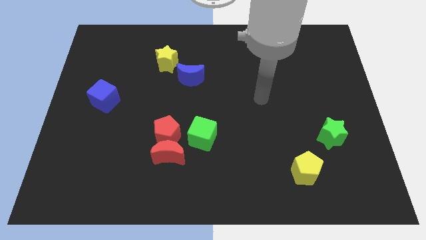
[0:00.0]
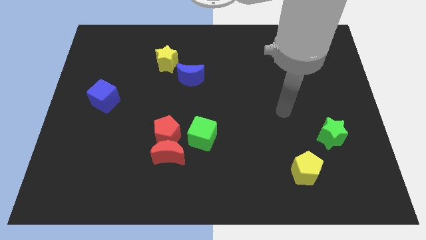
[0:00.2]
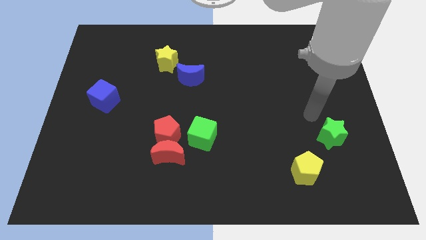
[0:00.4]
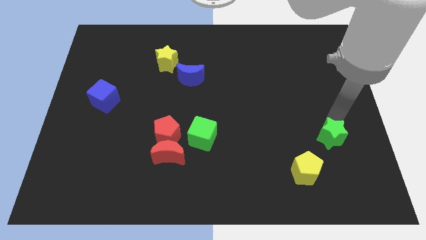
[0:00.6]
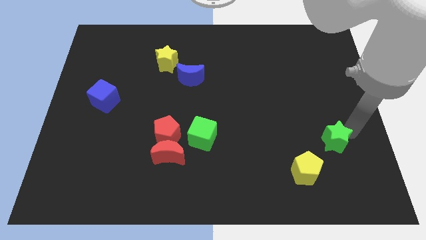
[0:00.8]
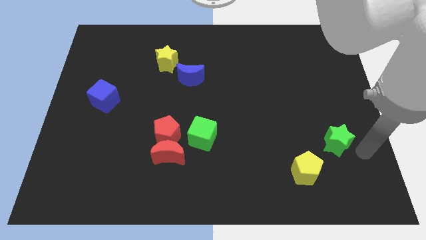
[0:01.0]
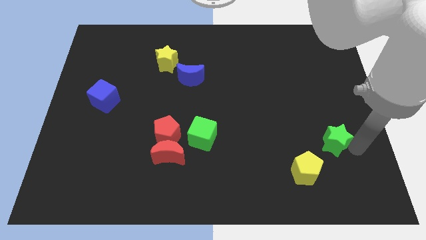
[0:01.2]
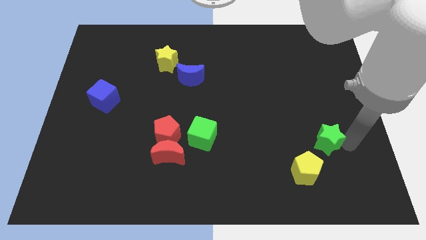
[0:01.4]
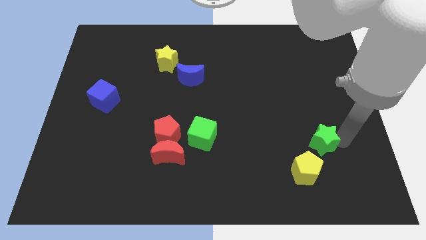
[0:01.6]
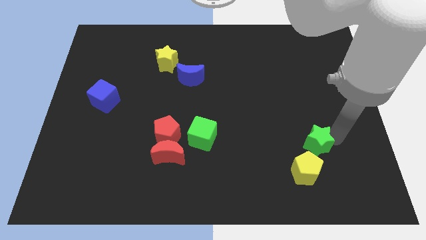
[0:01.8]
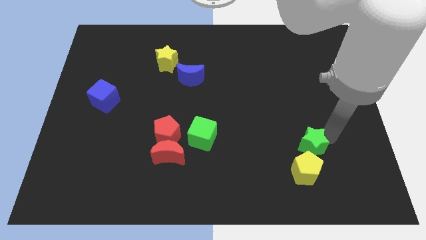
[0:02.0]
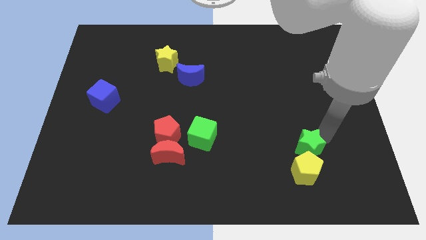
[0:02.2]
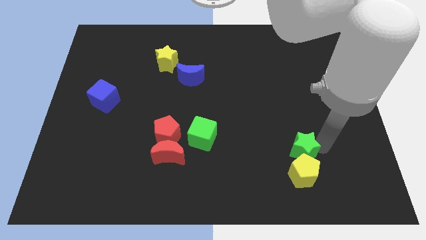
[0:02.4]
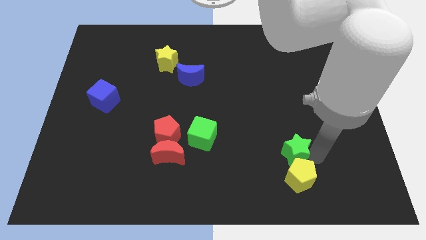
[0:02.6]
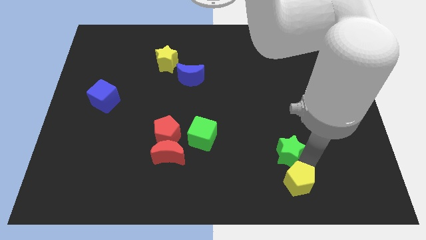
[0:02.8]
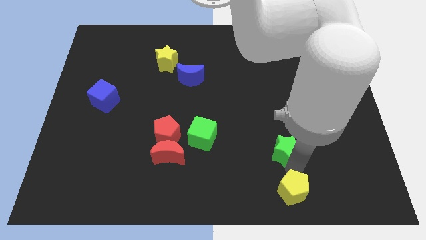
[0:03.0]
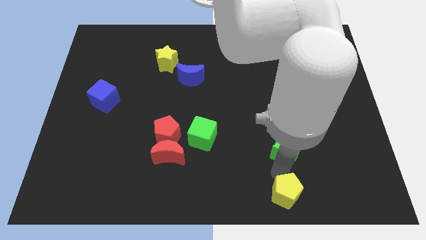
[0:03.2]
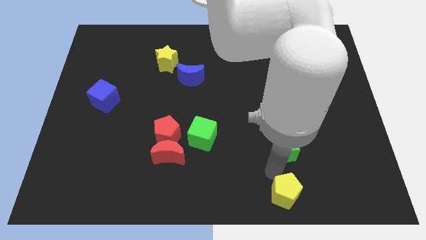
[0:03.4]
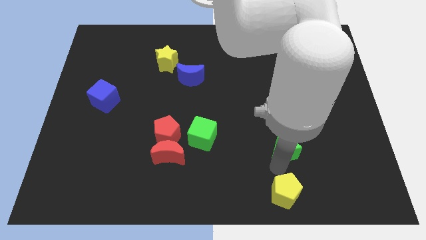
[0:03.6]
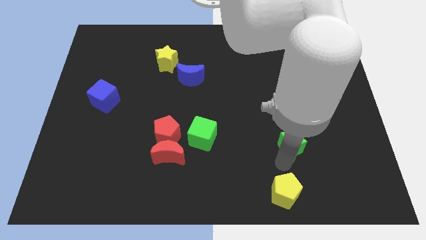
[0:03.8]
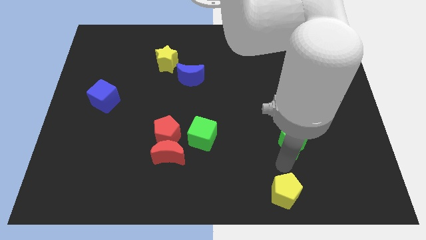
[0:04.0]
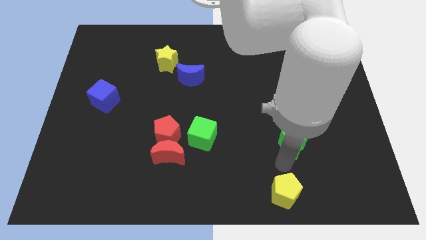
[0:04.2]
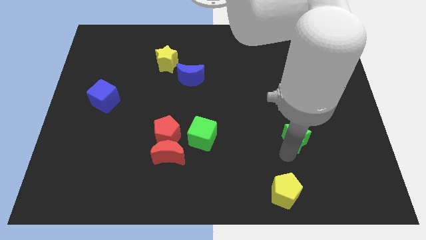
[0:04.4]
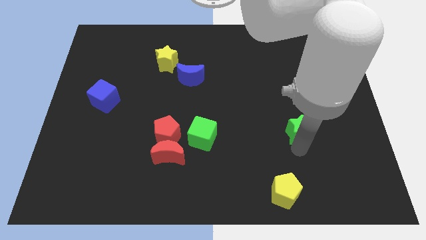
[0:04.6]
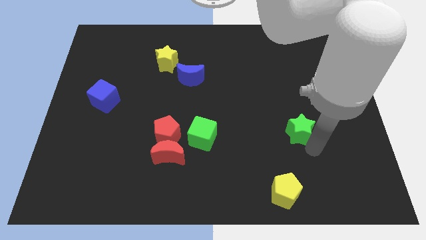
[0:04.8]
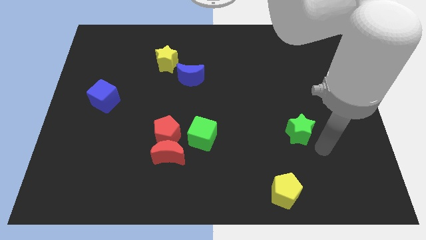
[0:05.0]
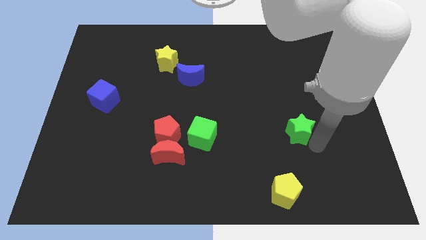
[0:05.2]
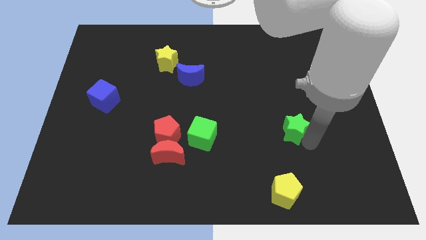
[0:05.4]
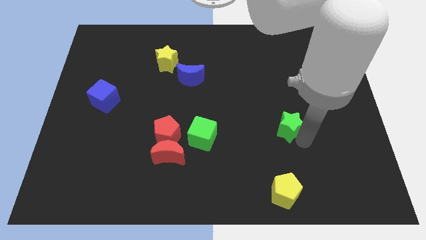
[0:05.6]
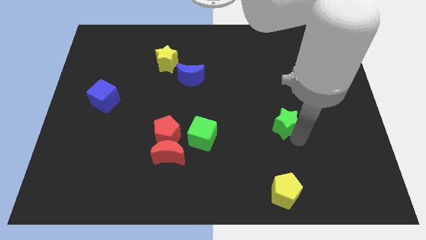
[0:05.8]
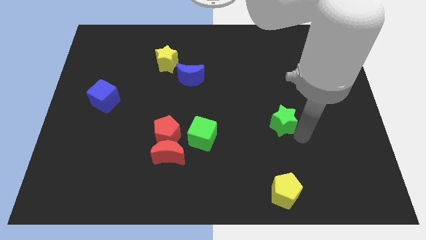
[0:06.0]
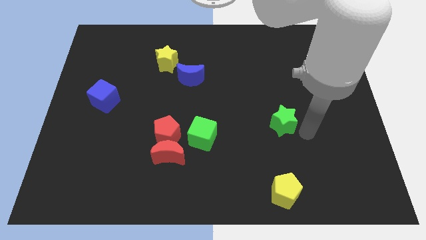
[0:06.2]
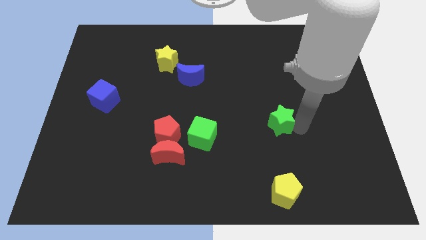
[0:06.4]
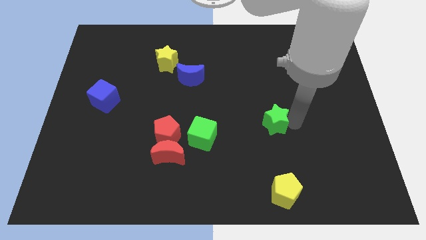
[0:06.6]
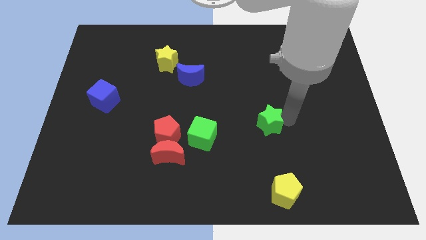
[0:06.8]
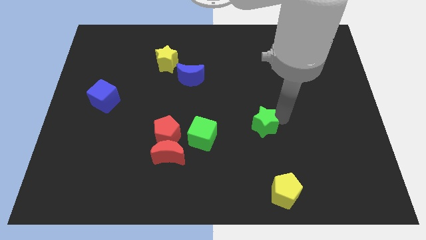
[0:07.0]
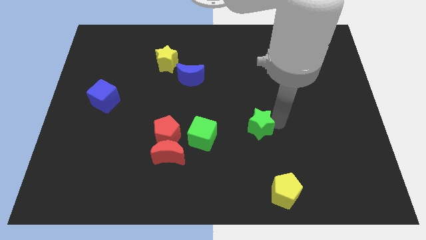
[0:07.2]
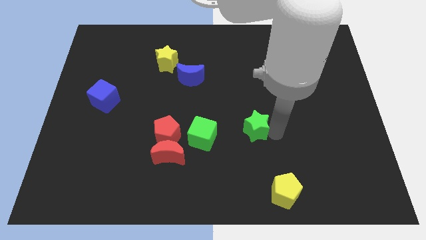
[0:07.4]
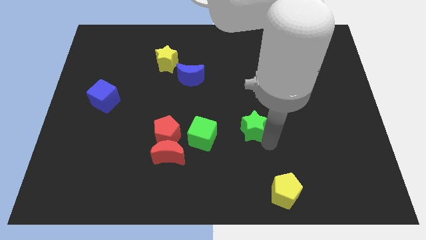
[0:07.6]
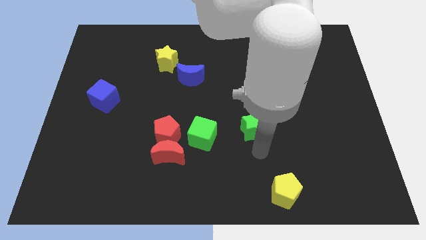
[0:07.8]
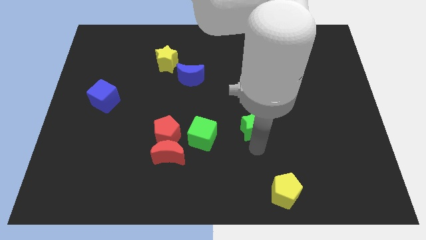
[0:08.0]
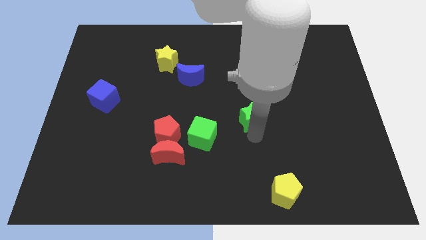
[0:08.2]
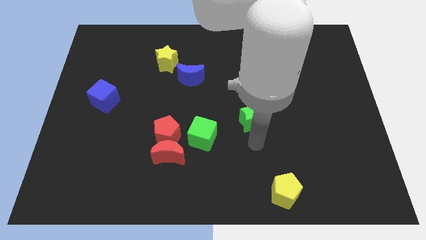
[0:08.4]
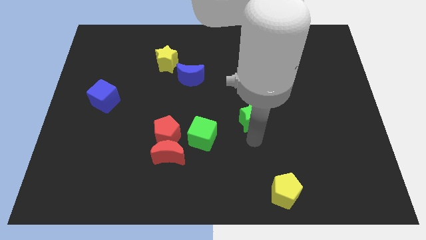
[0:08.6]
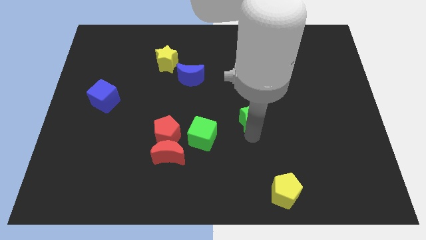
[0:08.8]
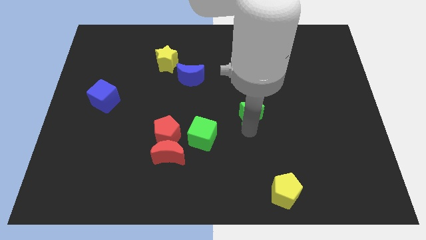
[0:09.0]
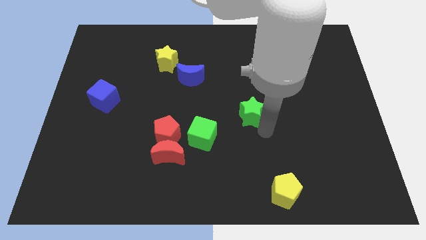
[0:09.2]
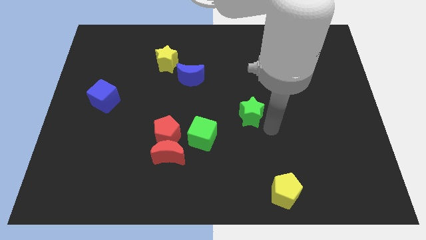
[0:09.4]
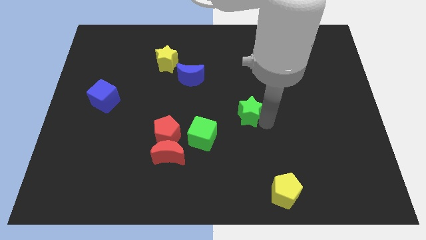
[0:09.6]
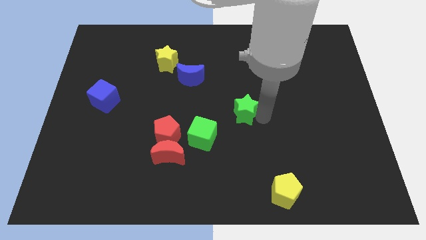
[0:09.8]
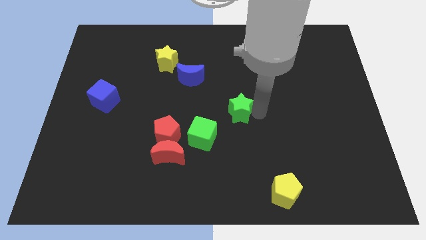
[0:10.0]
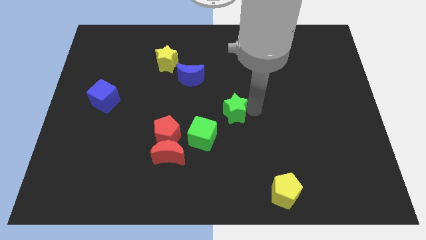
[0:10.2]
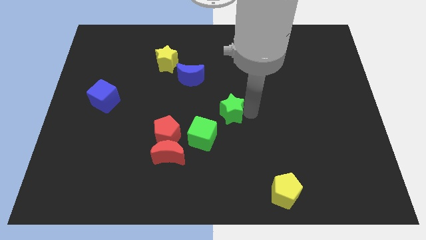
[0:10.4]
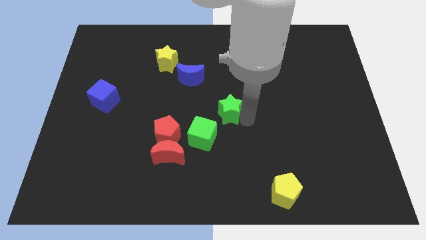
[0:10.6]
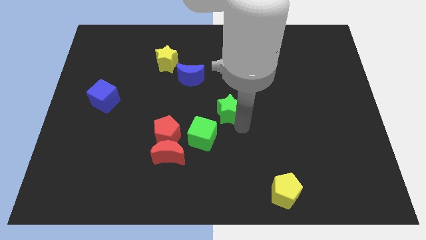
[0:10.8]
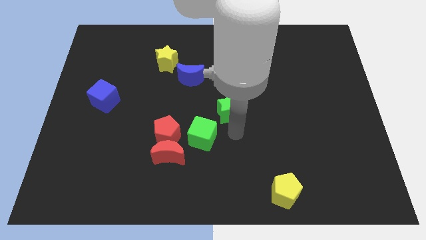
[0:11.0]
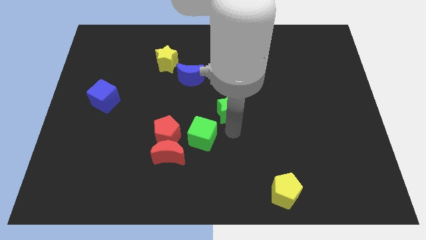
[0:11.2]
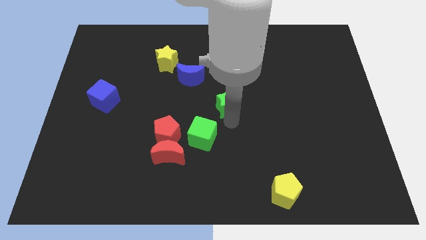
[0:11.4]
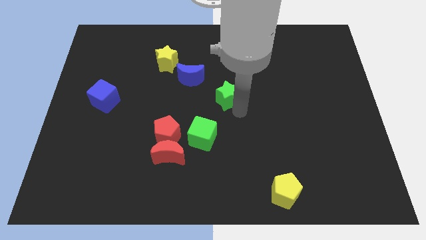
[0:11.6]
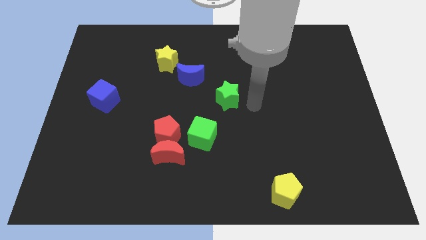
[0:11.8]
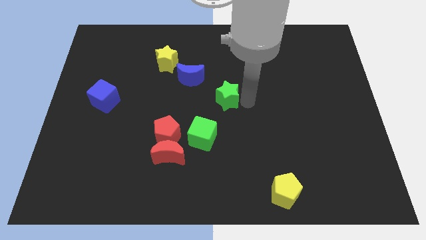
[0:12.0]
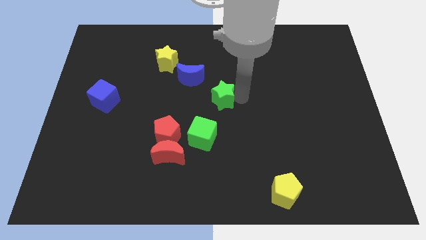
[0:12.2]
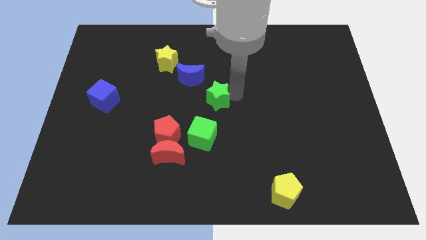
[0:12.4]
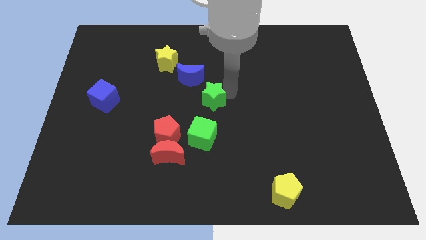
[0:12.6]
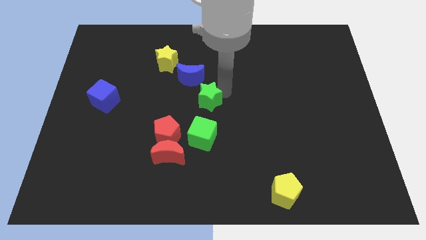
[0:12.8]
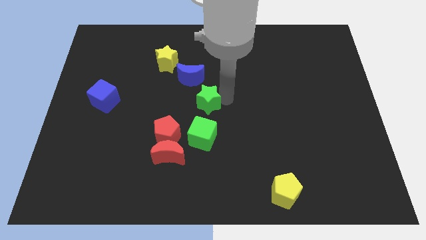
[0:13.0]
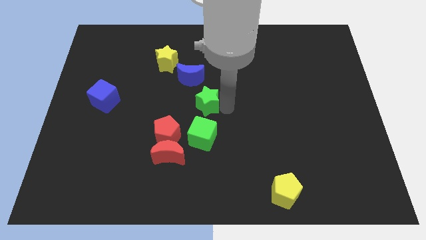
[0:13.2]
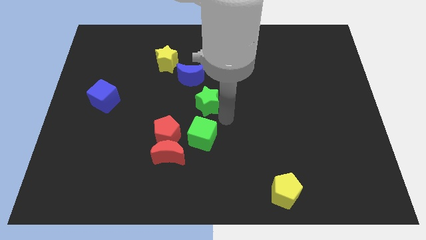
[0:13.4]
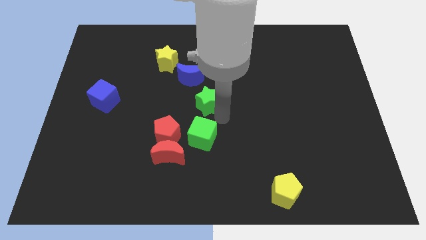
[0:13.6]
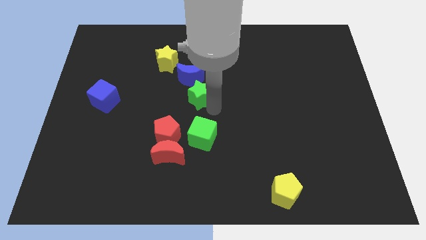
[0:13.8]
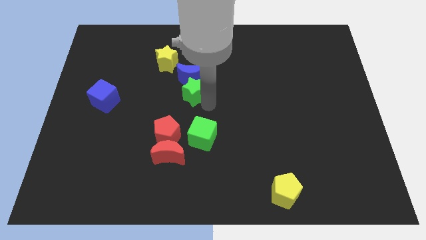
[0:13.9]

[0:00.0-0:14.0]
push the green star to the blue moon
